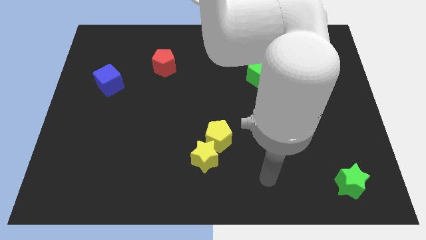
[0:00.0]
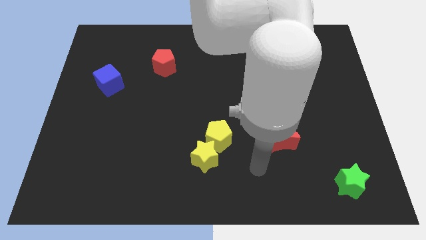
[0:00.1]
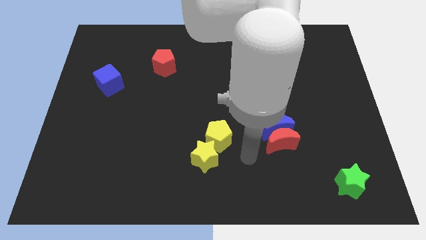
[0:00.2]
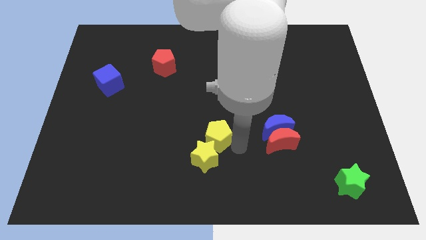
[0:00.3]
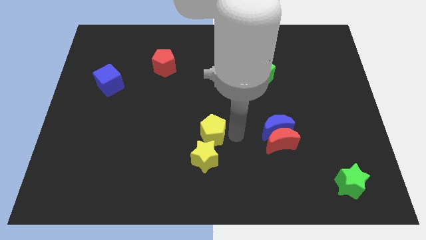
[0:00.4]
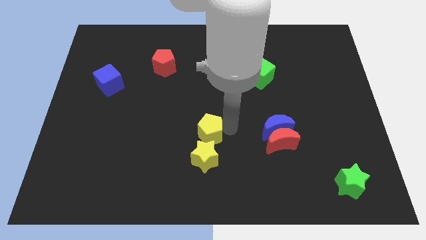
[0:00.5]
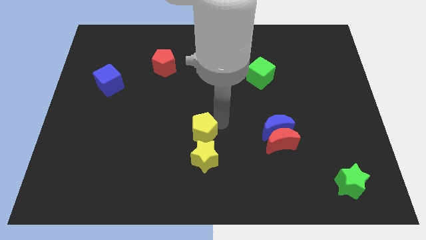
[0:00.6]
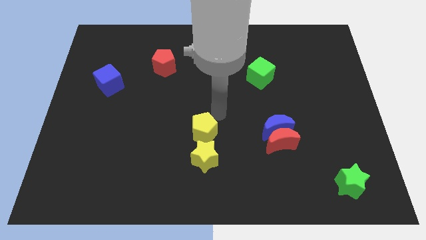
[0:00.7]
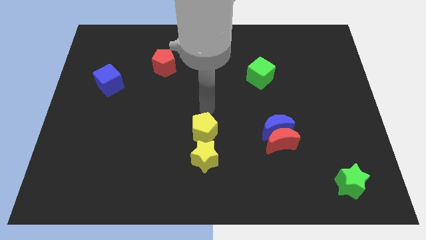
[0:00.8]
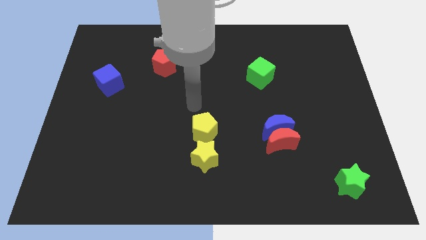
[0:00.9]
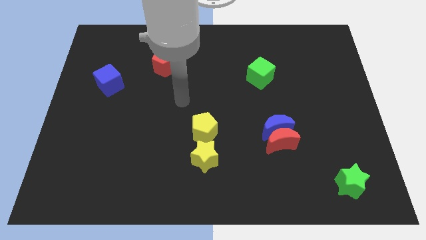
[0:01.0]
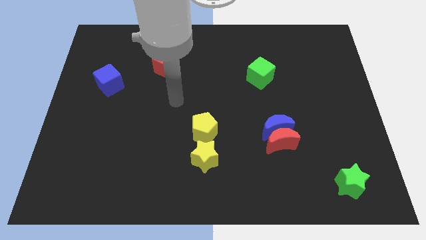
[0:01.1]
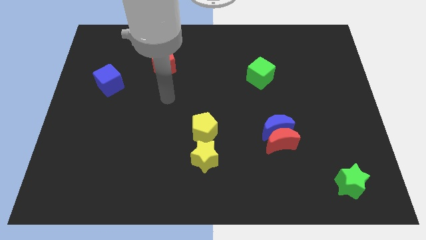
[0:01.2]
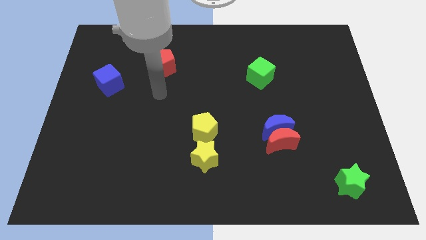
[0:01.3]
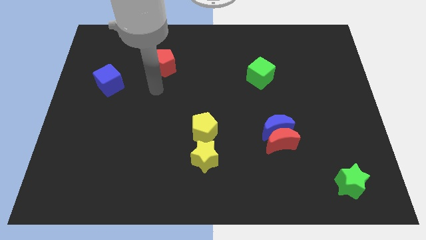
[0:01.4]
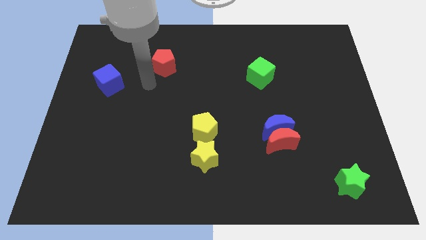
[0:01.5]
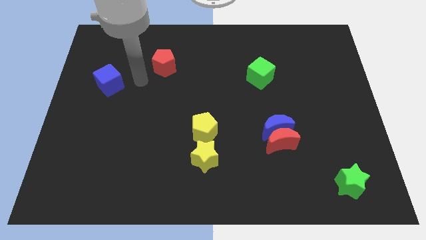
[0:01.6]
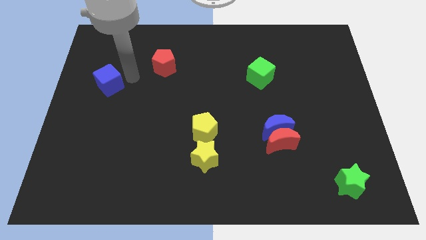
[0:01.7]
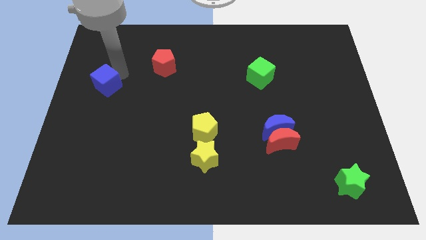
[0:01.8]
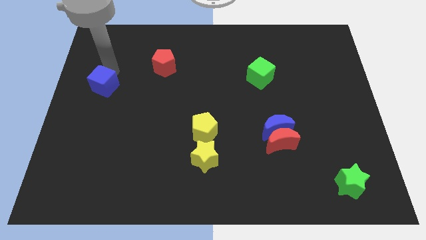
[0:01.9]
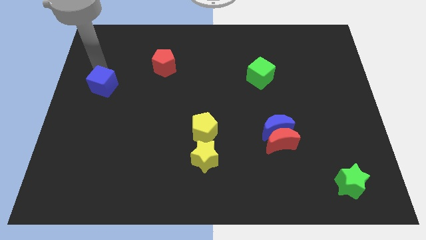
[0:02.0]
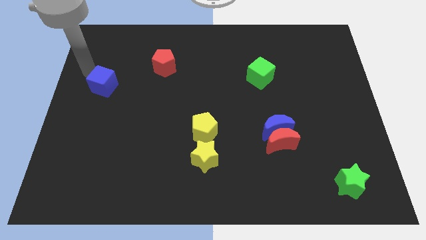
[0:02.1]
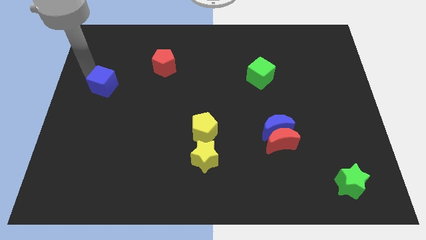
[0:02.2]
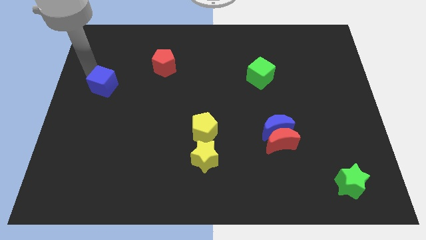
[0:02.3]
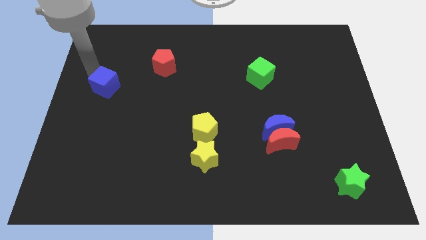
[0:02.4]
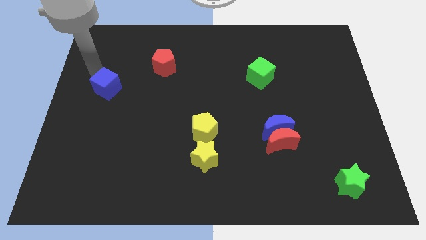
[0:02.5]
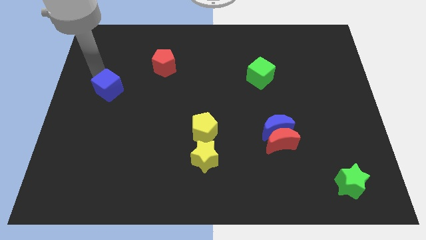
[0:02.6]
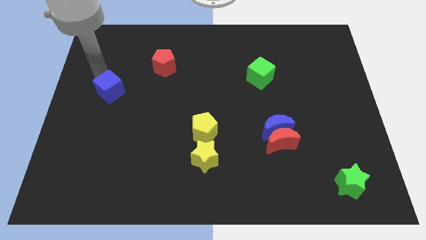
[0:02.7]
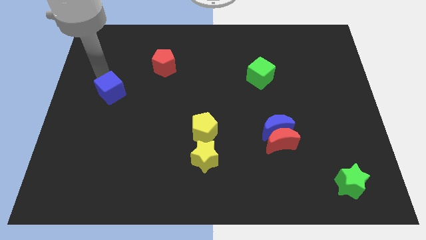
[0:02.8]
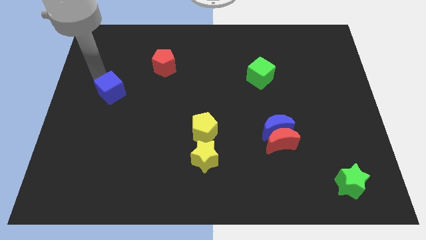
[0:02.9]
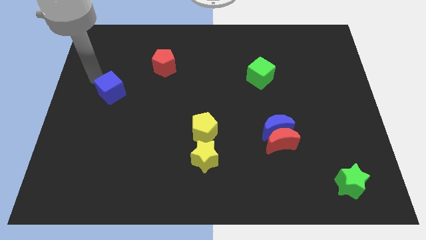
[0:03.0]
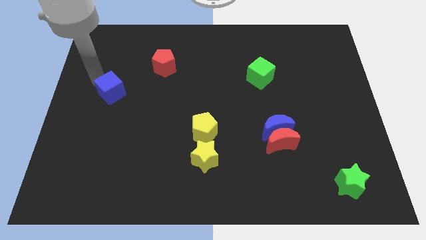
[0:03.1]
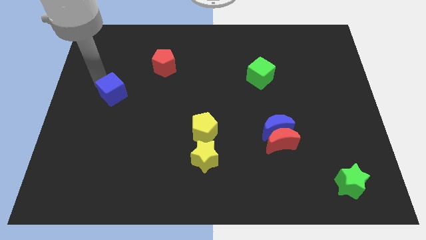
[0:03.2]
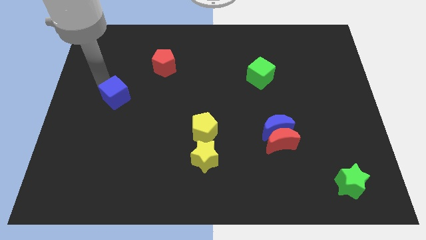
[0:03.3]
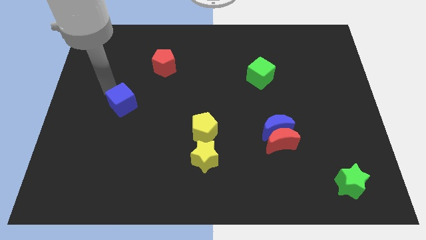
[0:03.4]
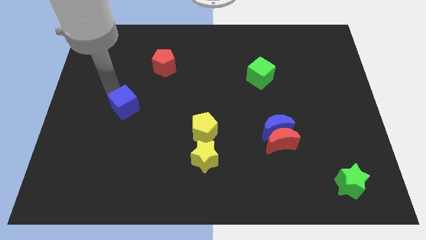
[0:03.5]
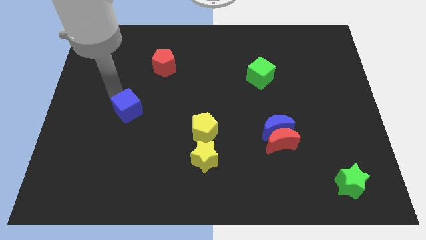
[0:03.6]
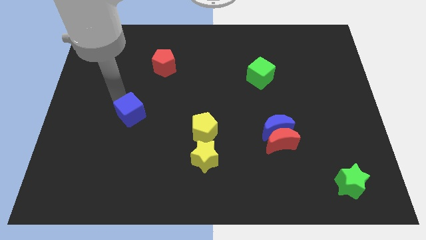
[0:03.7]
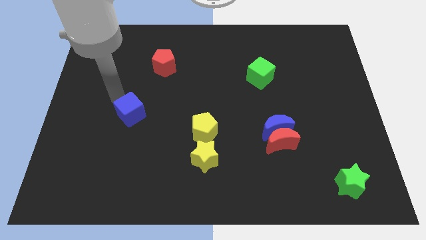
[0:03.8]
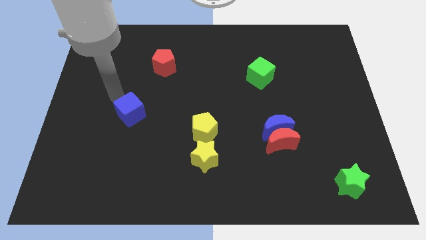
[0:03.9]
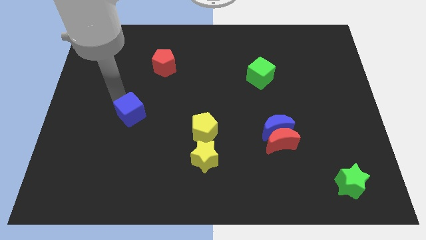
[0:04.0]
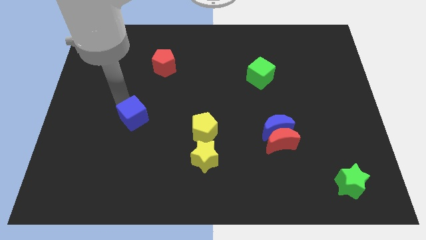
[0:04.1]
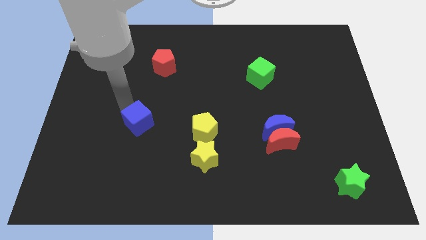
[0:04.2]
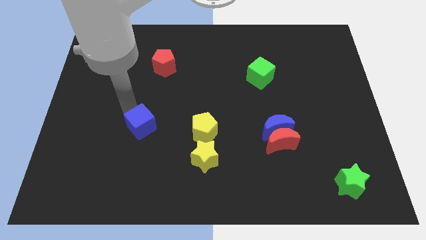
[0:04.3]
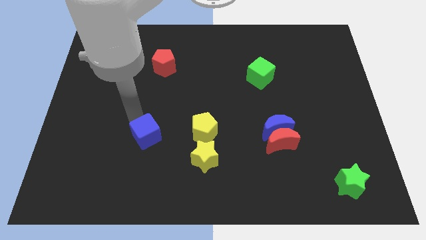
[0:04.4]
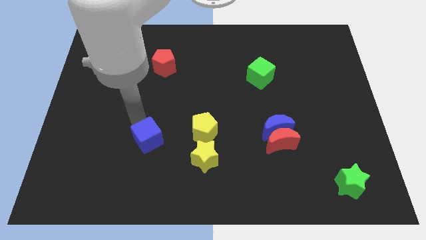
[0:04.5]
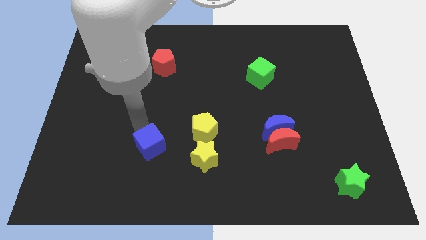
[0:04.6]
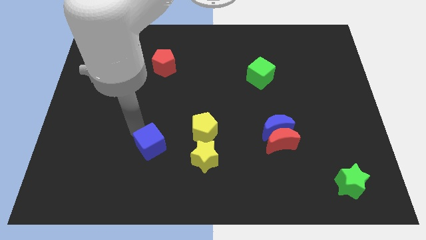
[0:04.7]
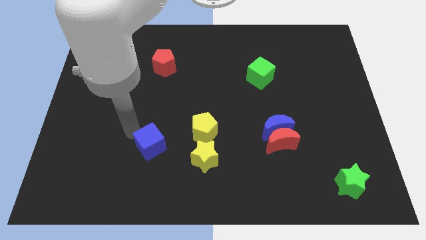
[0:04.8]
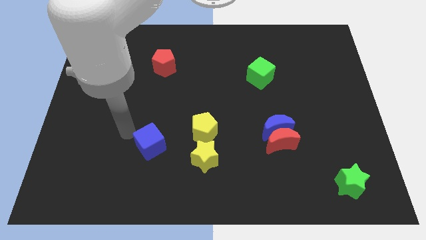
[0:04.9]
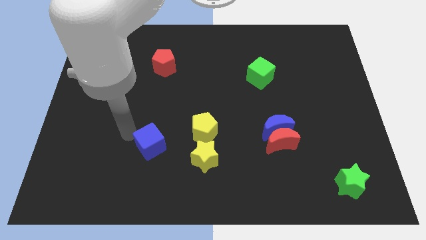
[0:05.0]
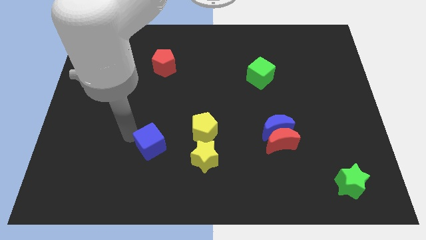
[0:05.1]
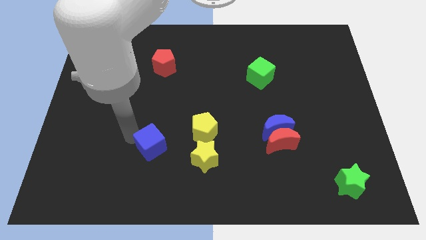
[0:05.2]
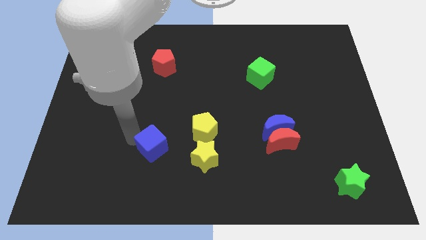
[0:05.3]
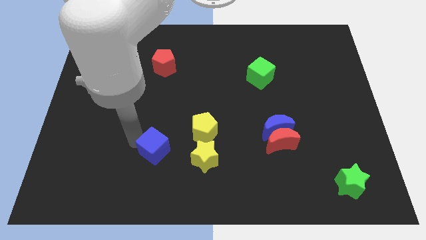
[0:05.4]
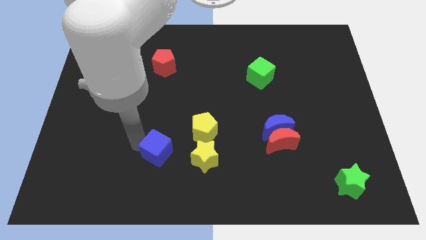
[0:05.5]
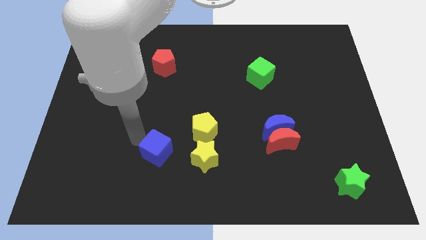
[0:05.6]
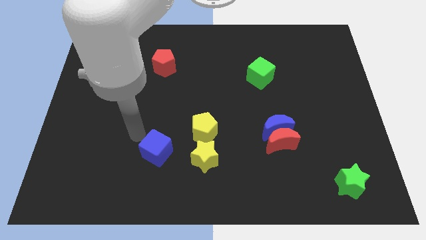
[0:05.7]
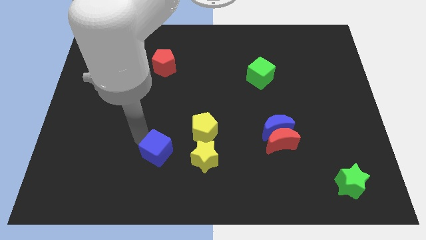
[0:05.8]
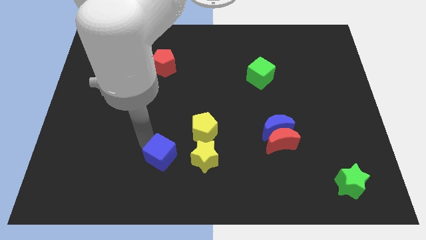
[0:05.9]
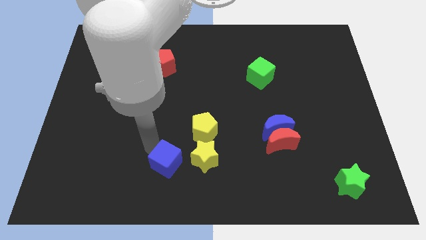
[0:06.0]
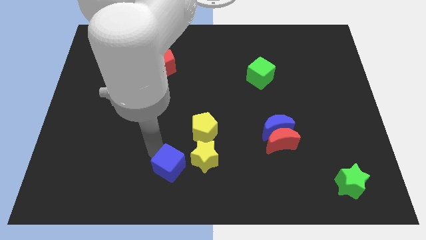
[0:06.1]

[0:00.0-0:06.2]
move the blue cube to the bottom side

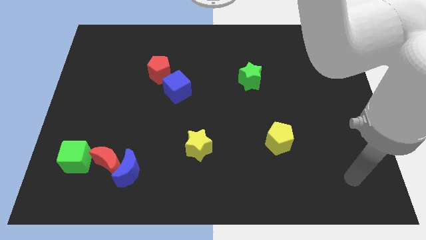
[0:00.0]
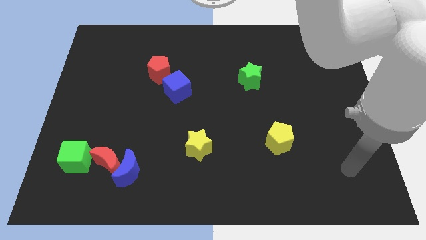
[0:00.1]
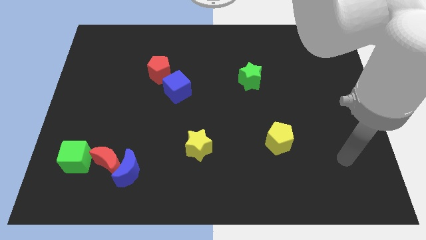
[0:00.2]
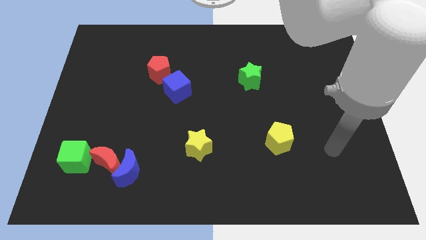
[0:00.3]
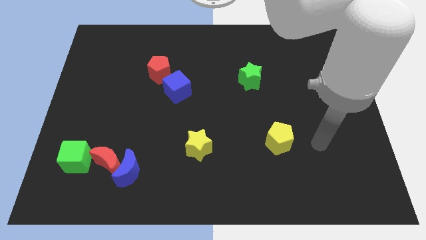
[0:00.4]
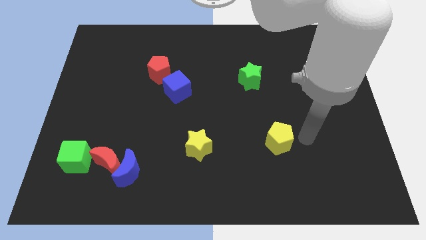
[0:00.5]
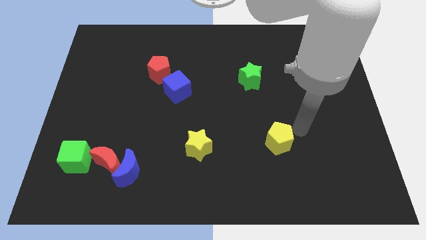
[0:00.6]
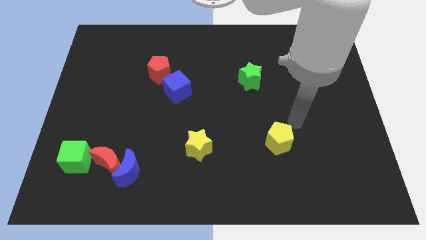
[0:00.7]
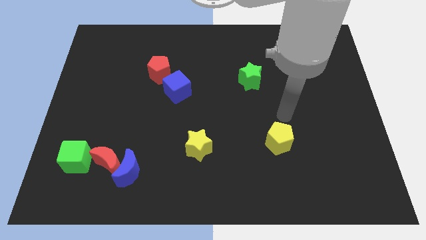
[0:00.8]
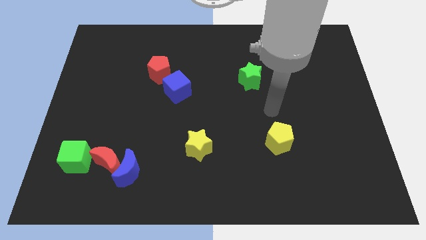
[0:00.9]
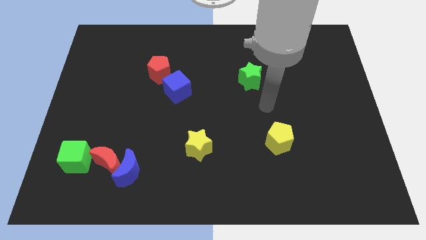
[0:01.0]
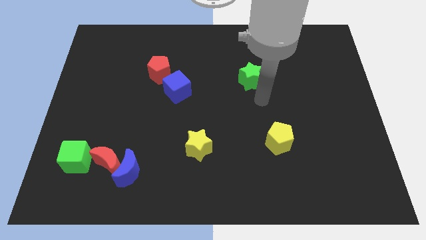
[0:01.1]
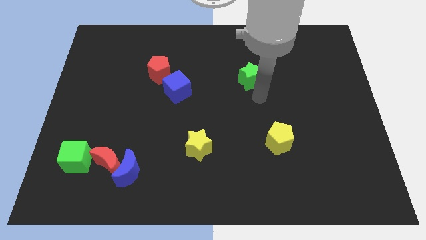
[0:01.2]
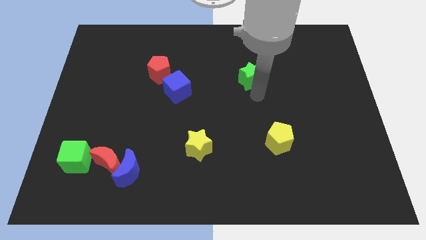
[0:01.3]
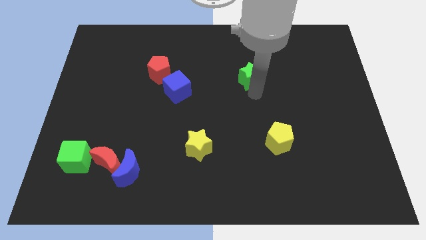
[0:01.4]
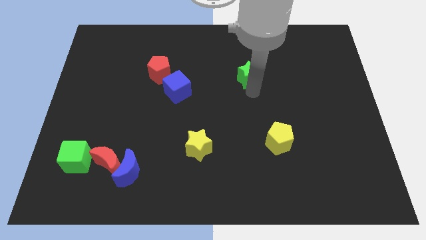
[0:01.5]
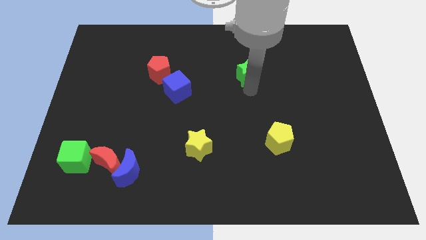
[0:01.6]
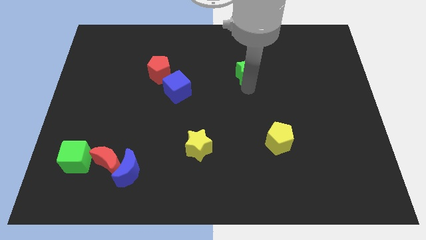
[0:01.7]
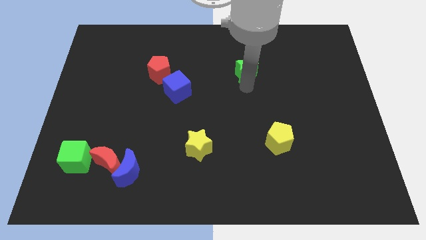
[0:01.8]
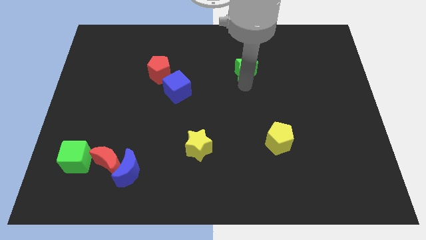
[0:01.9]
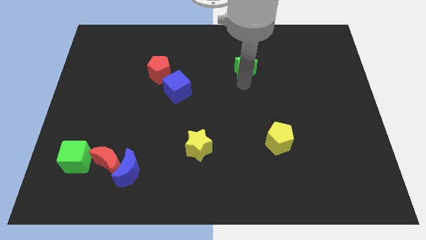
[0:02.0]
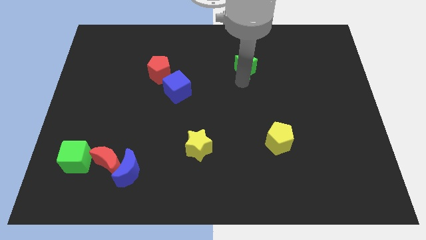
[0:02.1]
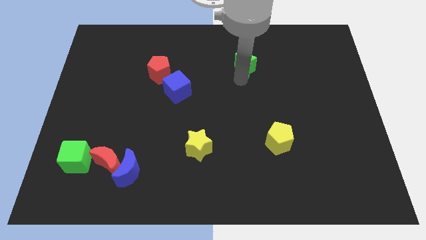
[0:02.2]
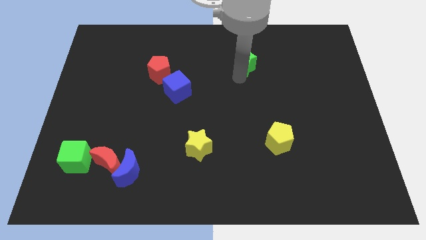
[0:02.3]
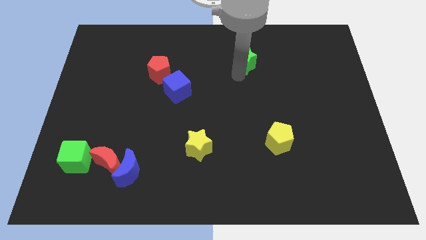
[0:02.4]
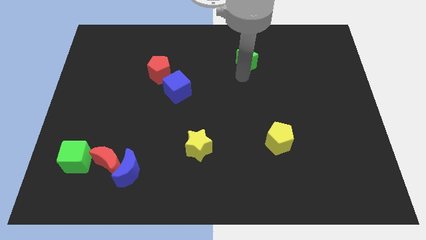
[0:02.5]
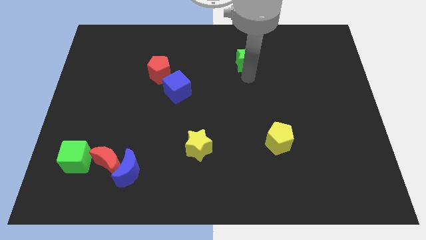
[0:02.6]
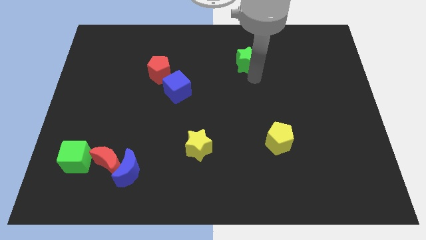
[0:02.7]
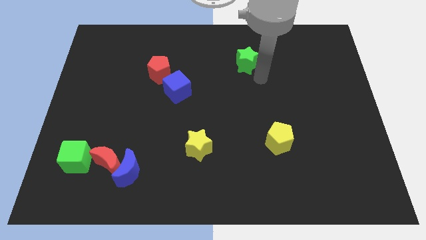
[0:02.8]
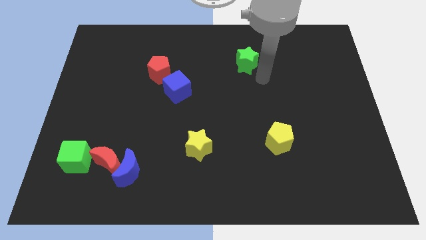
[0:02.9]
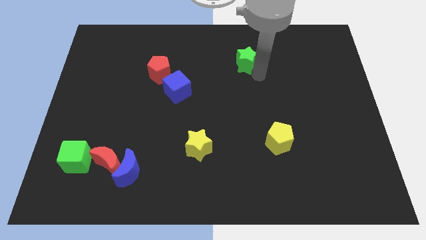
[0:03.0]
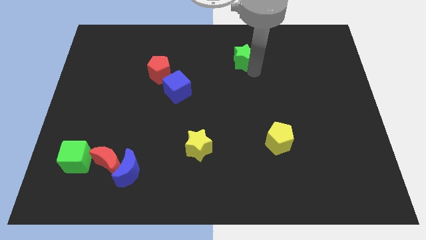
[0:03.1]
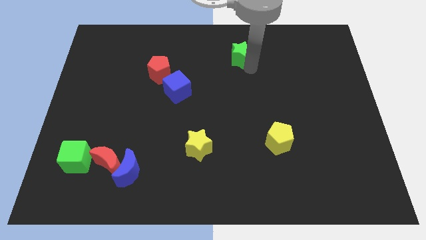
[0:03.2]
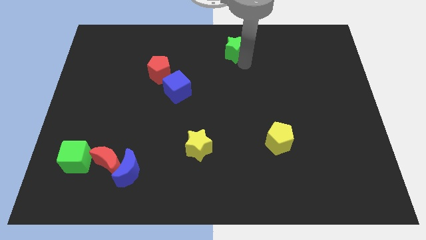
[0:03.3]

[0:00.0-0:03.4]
push the green star to the top
